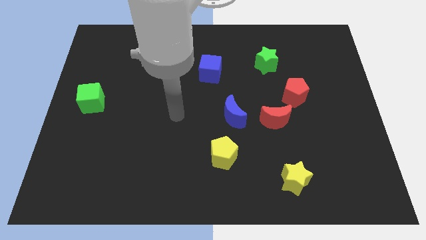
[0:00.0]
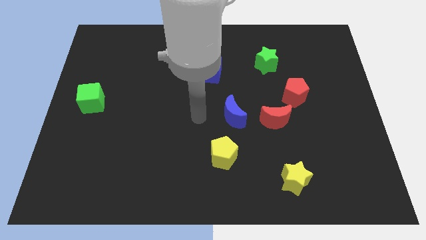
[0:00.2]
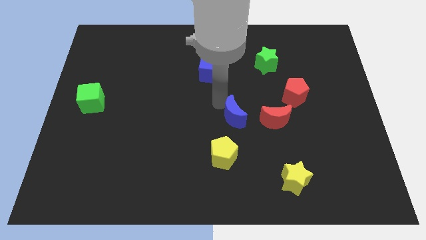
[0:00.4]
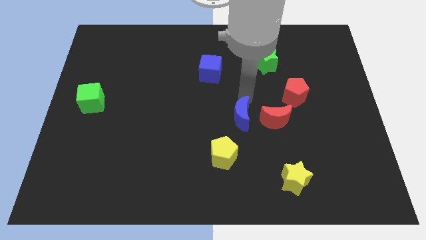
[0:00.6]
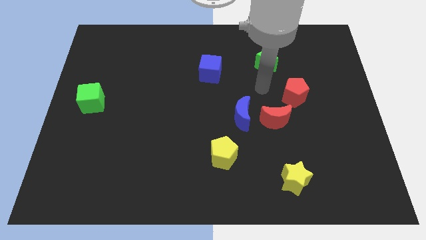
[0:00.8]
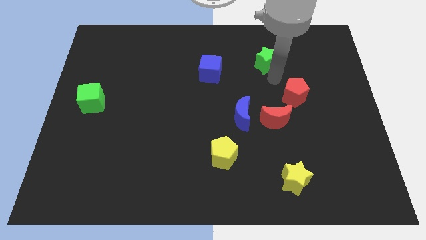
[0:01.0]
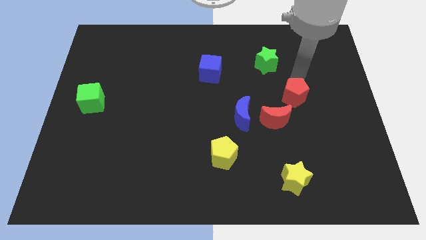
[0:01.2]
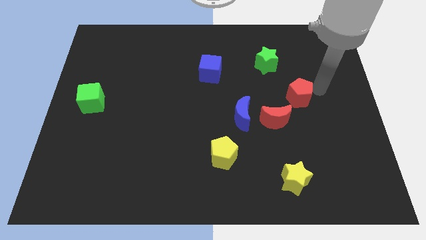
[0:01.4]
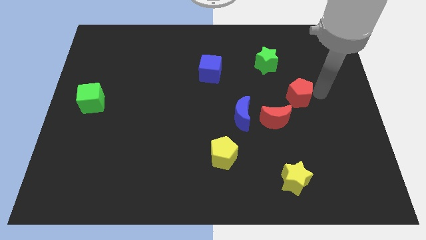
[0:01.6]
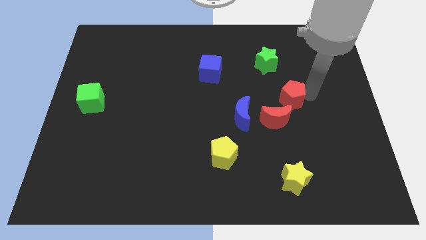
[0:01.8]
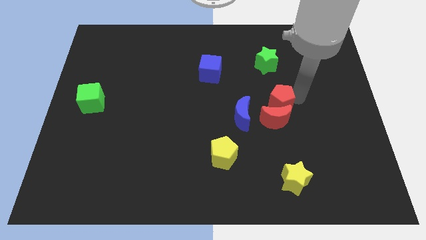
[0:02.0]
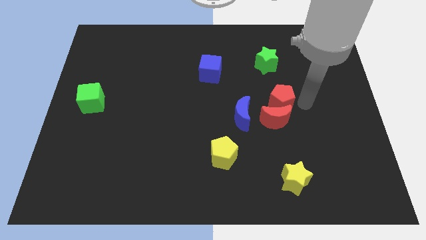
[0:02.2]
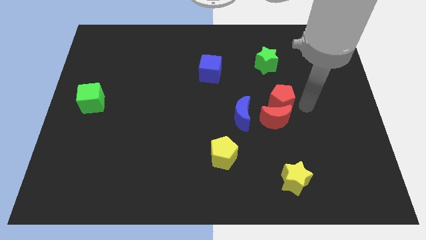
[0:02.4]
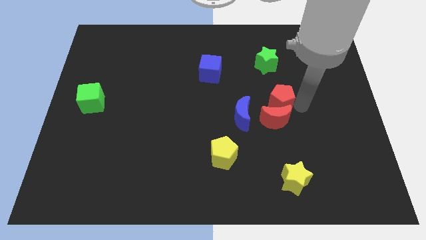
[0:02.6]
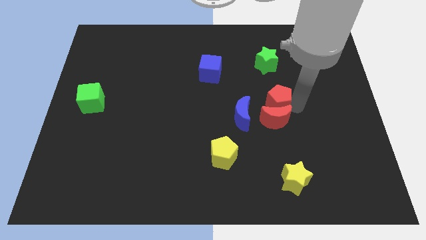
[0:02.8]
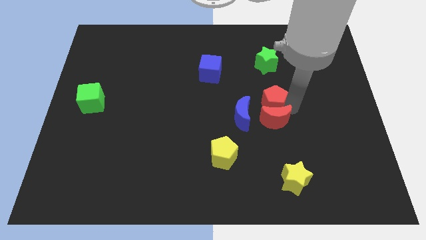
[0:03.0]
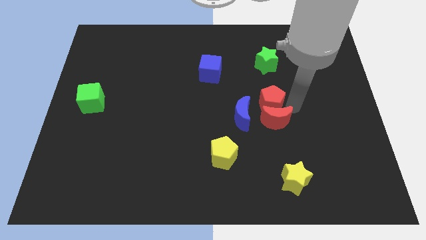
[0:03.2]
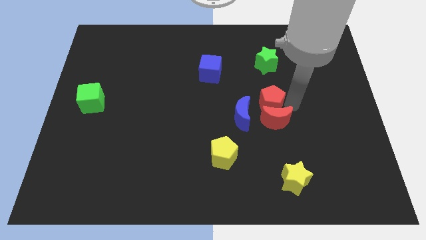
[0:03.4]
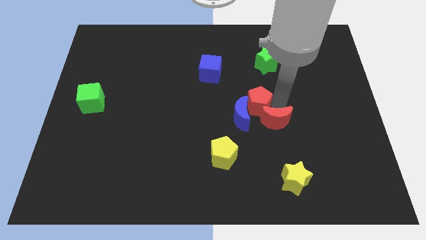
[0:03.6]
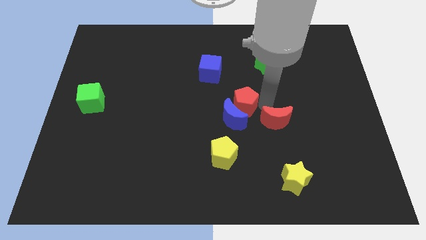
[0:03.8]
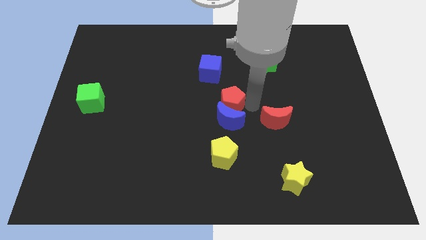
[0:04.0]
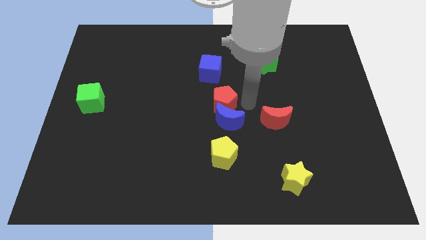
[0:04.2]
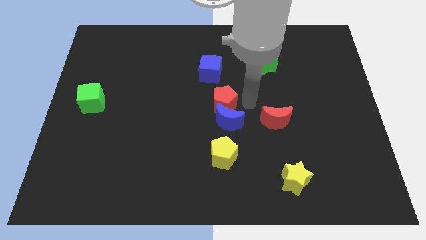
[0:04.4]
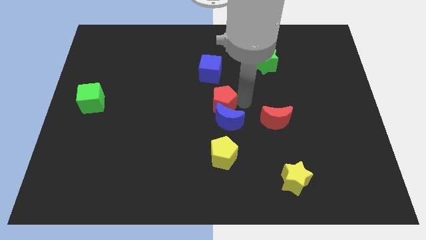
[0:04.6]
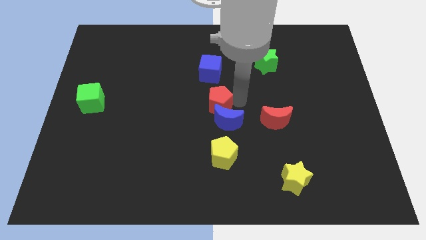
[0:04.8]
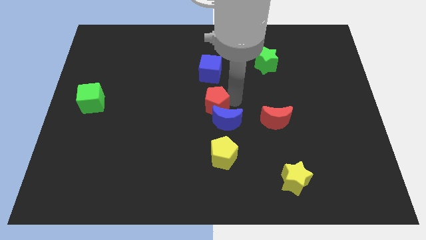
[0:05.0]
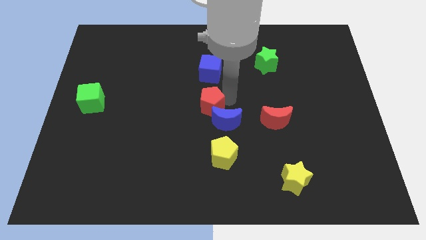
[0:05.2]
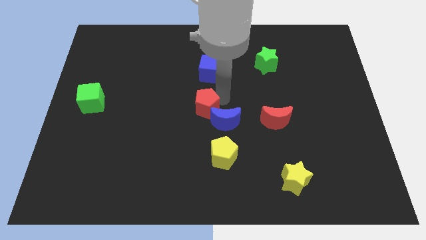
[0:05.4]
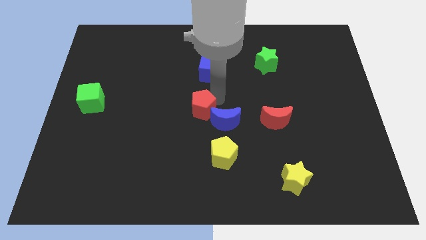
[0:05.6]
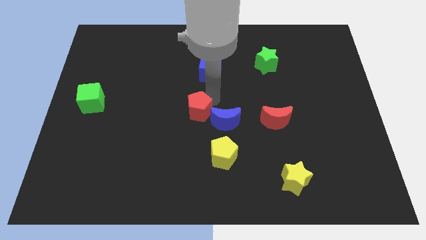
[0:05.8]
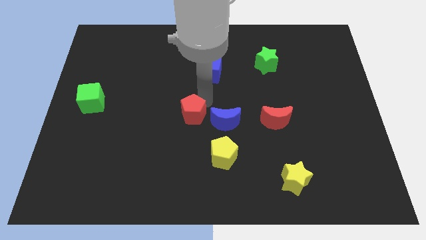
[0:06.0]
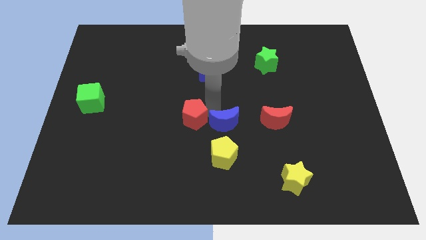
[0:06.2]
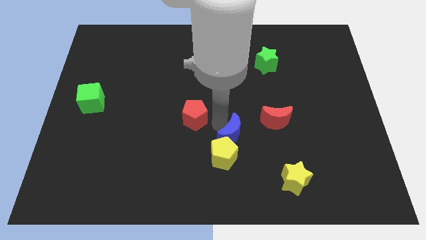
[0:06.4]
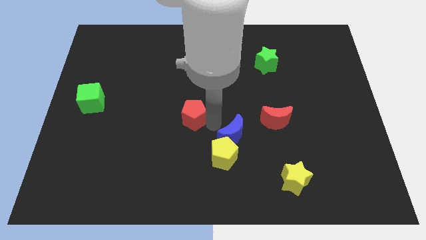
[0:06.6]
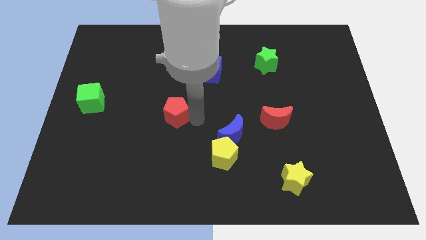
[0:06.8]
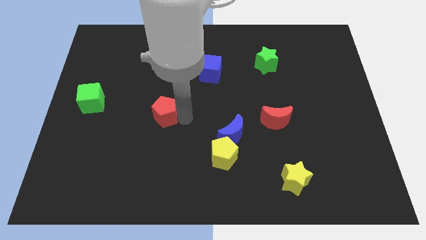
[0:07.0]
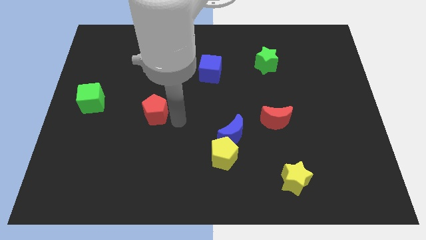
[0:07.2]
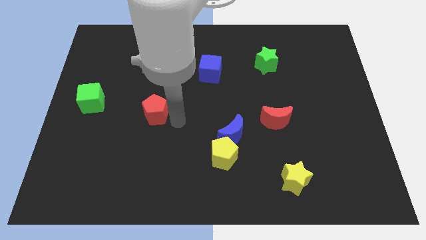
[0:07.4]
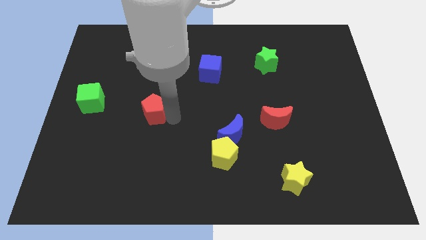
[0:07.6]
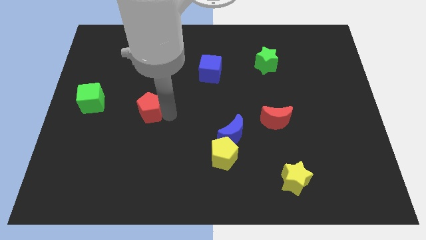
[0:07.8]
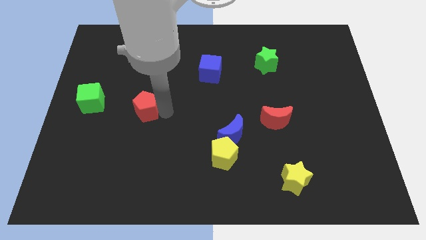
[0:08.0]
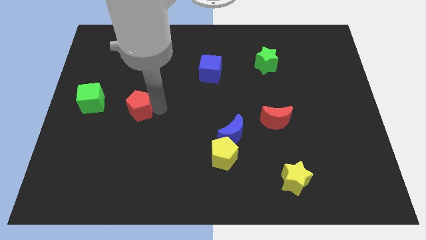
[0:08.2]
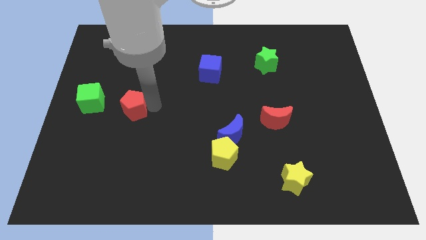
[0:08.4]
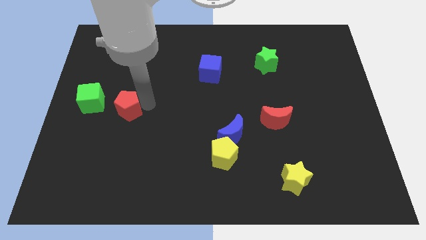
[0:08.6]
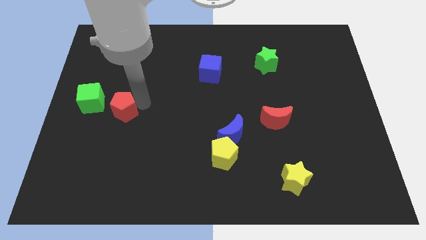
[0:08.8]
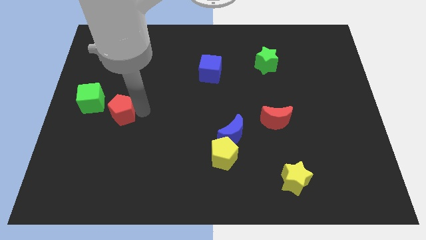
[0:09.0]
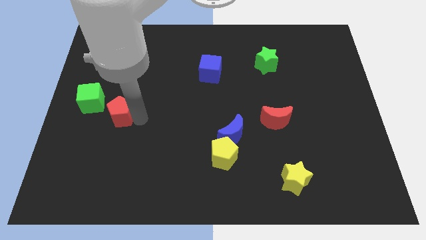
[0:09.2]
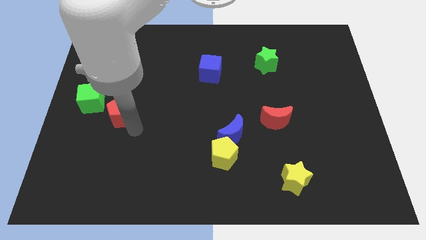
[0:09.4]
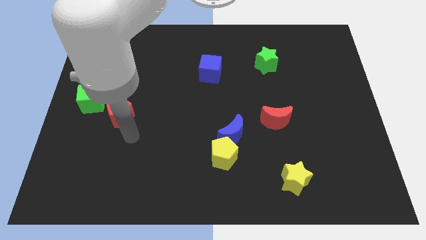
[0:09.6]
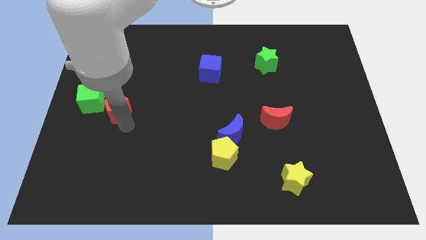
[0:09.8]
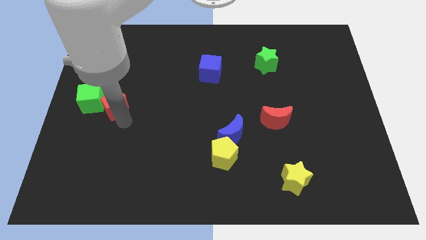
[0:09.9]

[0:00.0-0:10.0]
slide the red pentagon towards the green cube

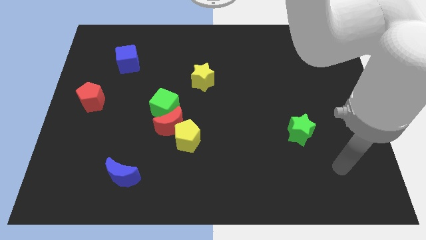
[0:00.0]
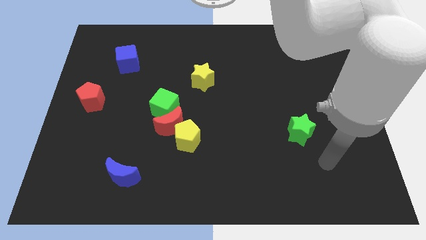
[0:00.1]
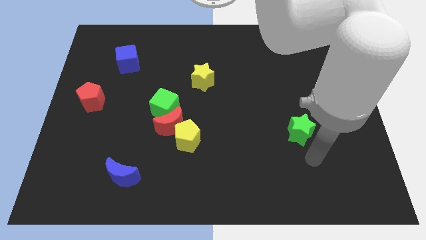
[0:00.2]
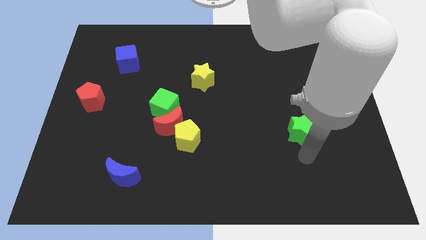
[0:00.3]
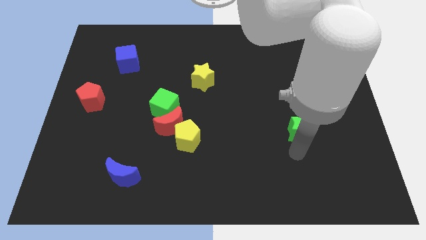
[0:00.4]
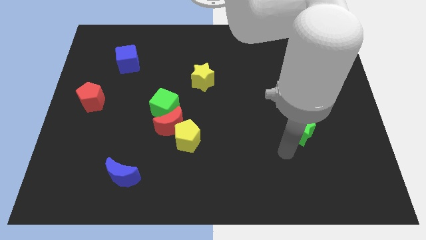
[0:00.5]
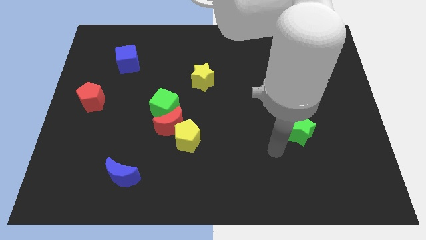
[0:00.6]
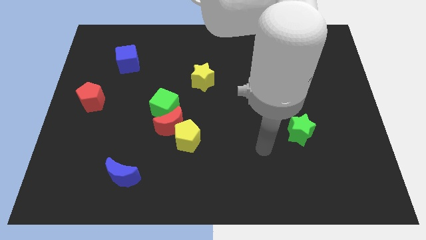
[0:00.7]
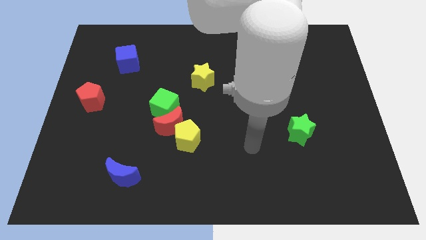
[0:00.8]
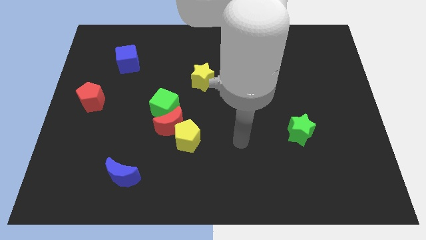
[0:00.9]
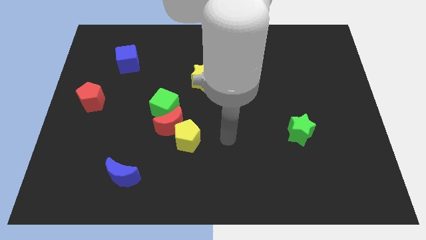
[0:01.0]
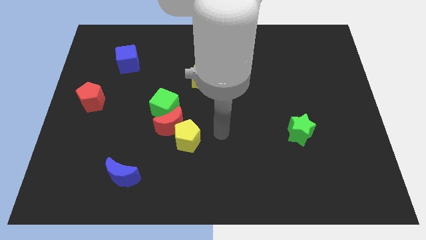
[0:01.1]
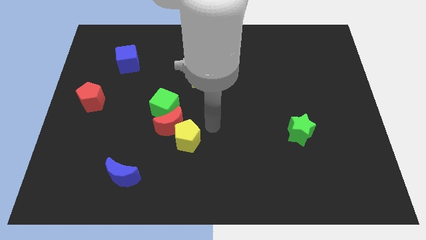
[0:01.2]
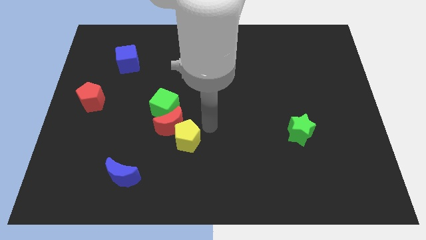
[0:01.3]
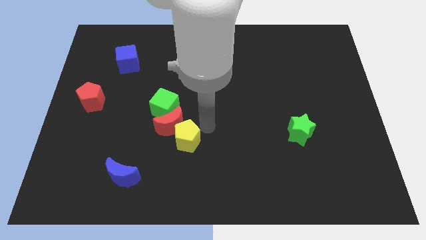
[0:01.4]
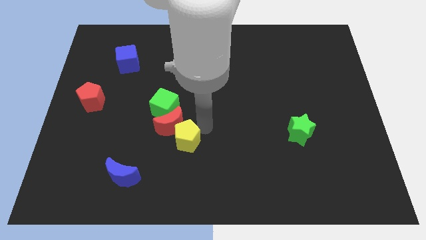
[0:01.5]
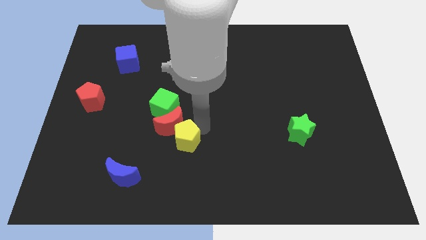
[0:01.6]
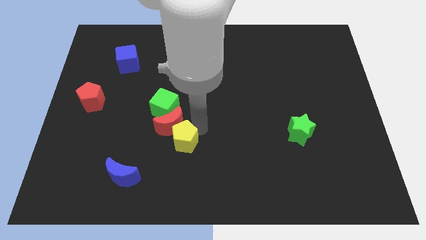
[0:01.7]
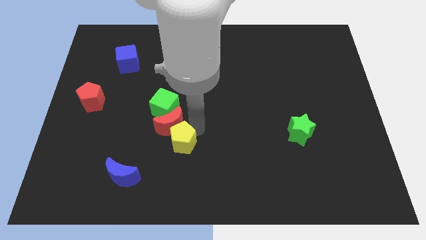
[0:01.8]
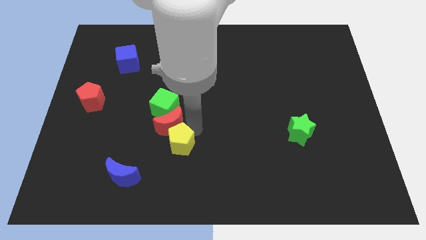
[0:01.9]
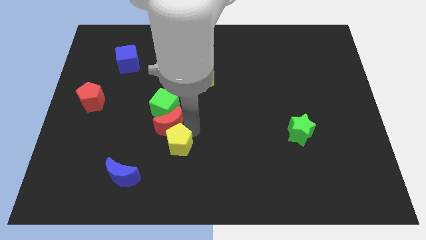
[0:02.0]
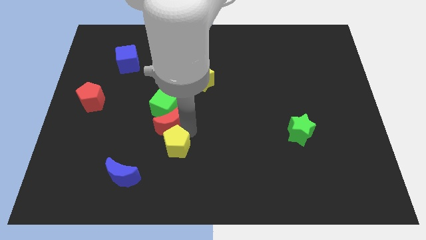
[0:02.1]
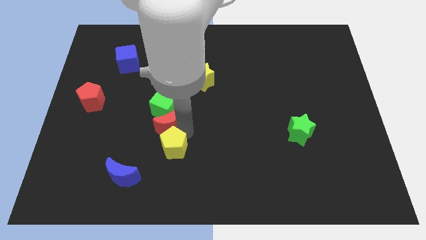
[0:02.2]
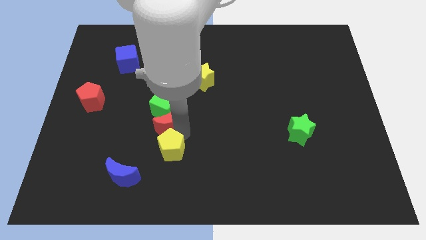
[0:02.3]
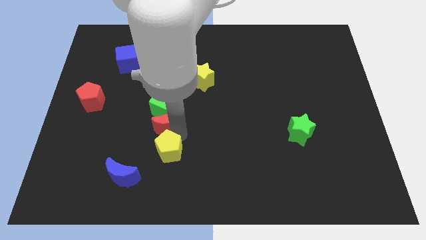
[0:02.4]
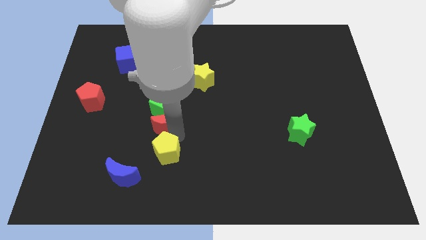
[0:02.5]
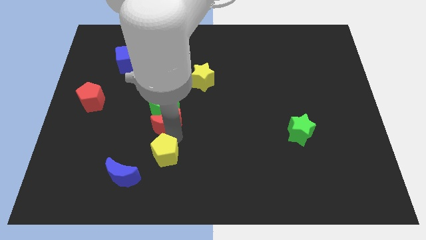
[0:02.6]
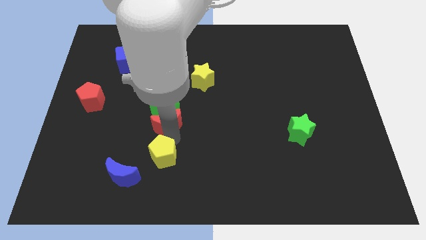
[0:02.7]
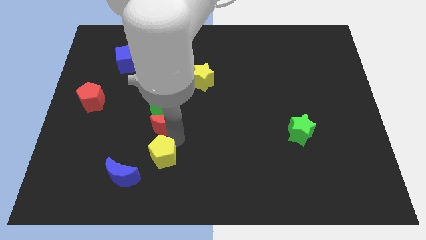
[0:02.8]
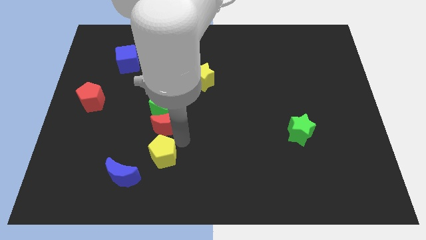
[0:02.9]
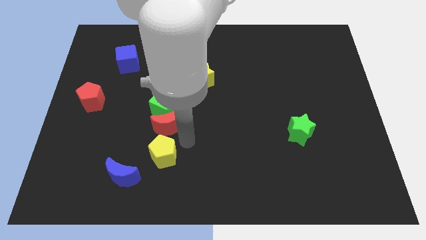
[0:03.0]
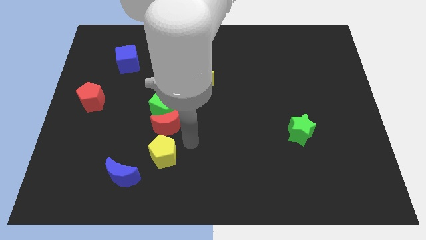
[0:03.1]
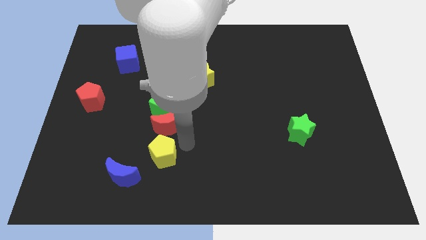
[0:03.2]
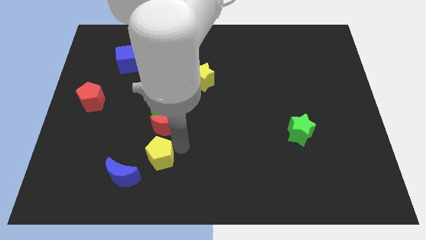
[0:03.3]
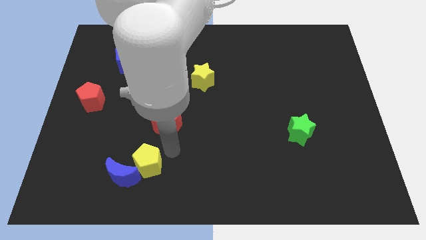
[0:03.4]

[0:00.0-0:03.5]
slide the yellow pentagon next to the blue moon
